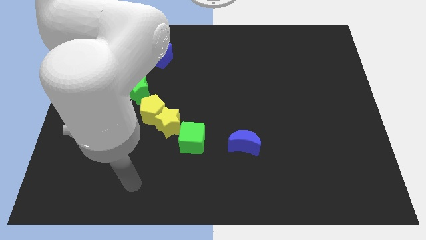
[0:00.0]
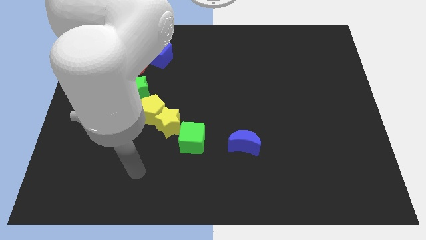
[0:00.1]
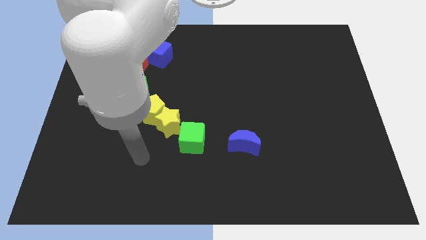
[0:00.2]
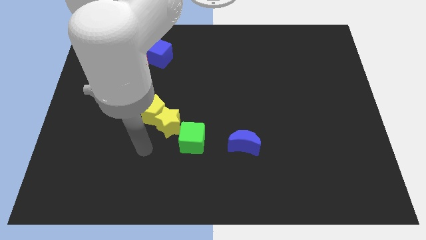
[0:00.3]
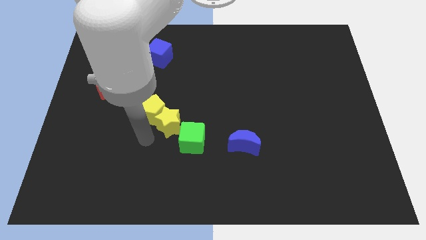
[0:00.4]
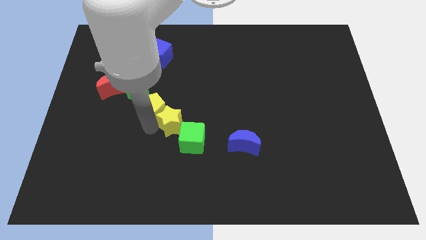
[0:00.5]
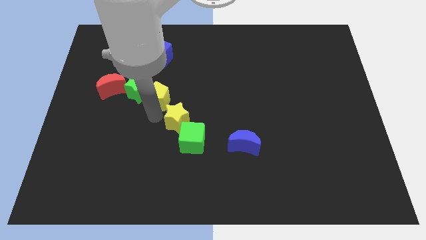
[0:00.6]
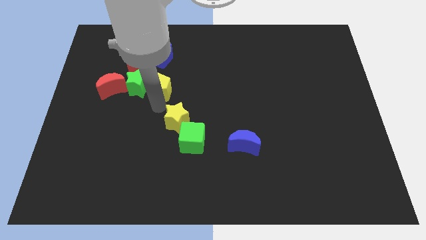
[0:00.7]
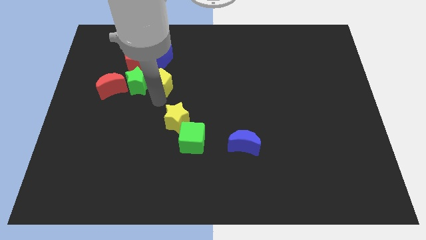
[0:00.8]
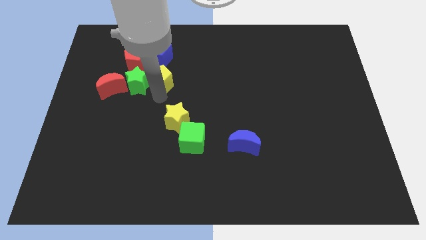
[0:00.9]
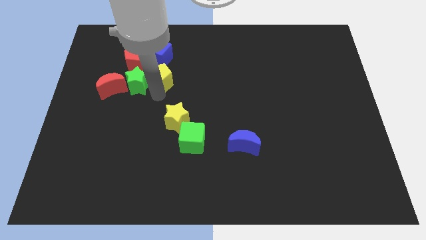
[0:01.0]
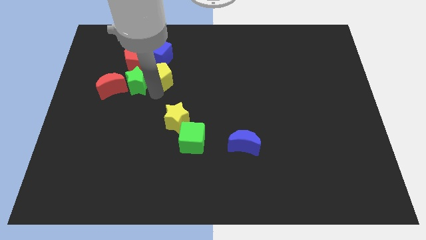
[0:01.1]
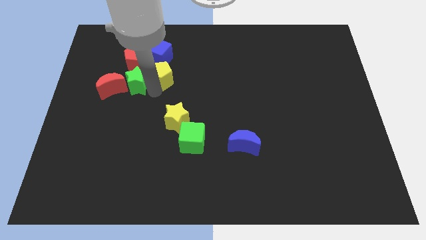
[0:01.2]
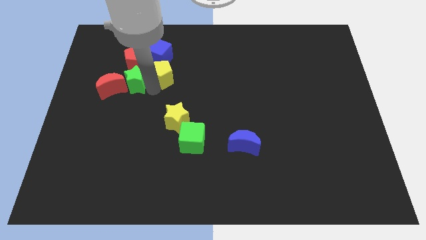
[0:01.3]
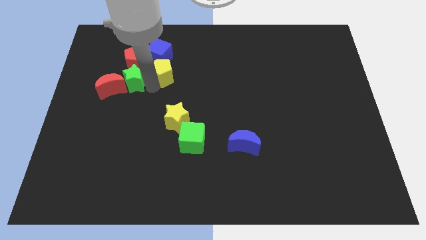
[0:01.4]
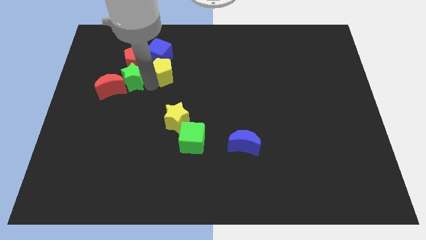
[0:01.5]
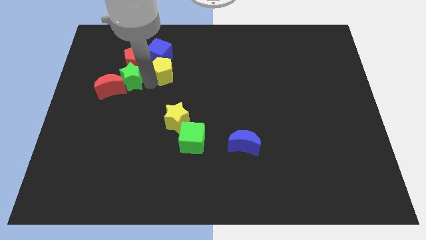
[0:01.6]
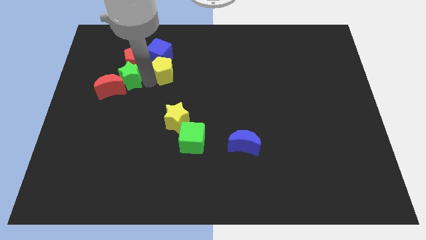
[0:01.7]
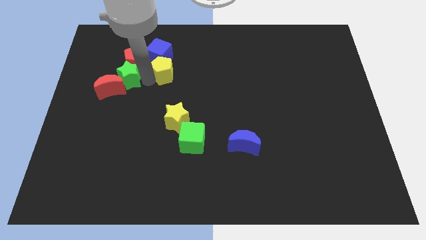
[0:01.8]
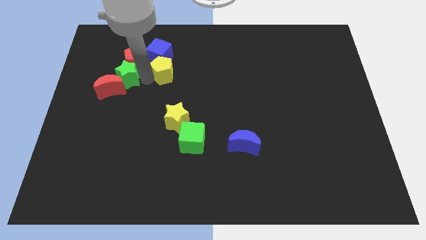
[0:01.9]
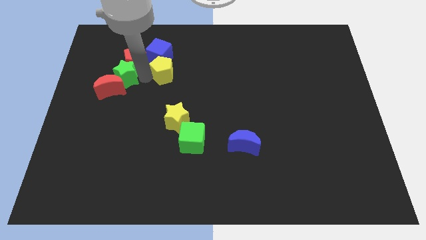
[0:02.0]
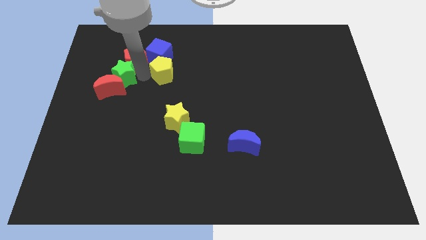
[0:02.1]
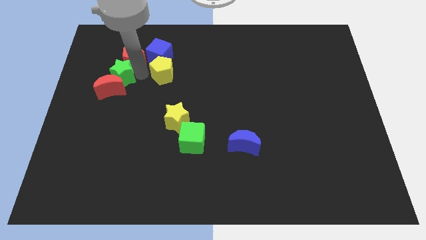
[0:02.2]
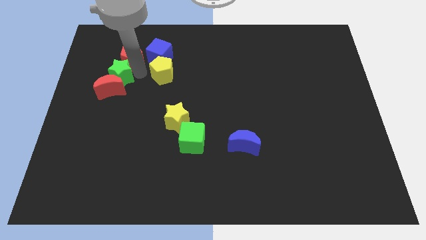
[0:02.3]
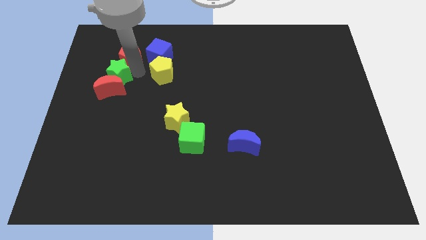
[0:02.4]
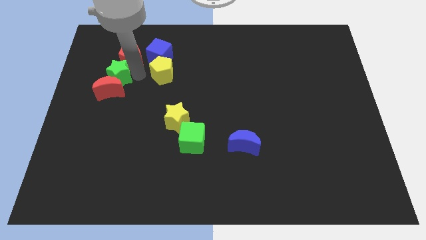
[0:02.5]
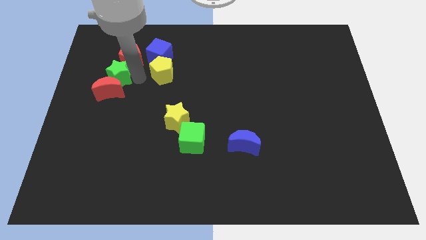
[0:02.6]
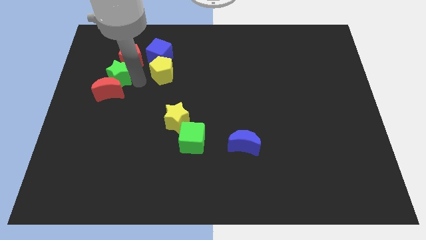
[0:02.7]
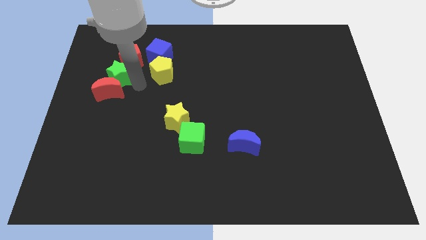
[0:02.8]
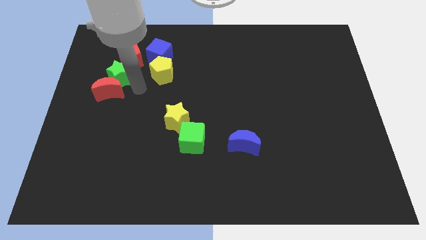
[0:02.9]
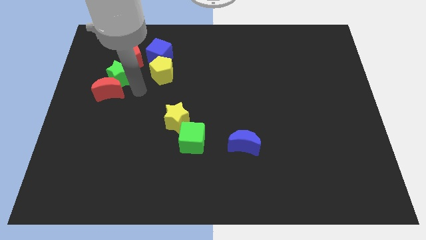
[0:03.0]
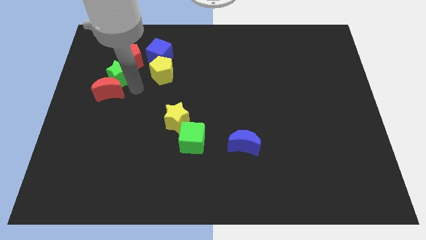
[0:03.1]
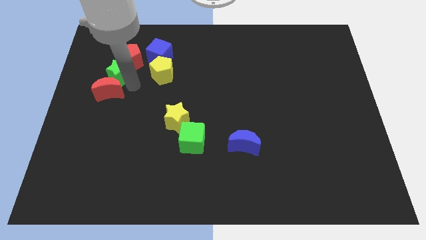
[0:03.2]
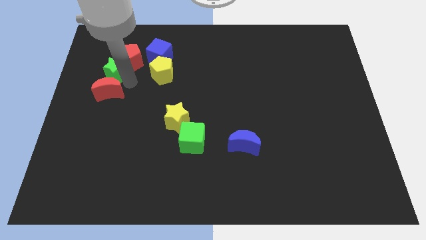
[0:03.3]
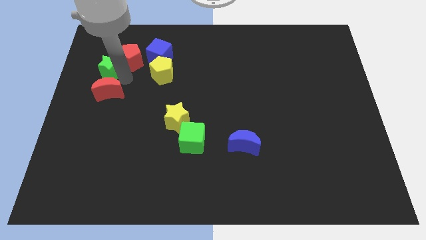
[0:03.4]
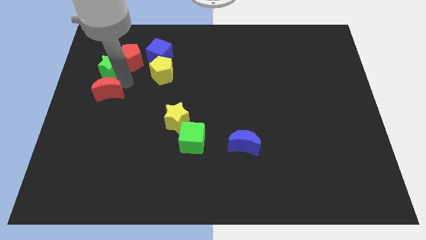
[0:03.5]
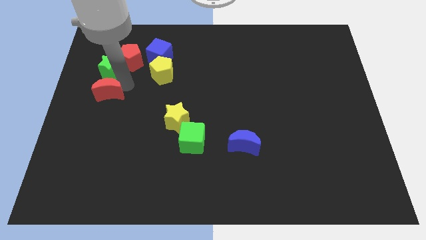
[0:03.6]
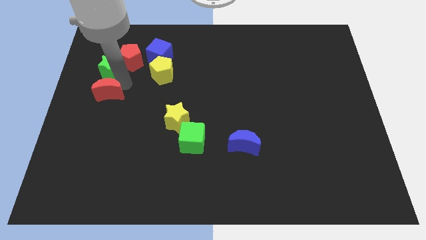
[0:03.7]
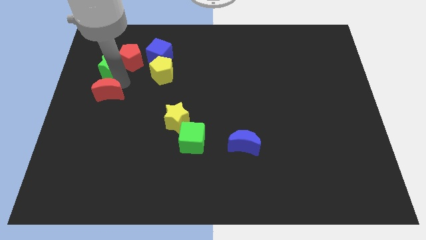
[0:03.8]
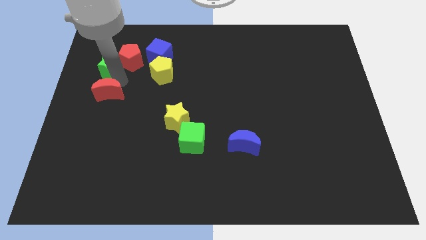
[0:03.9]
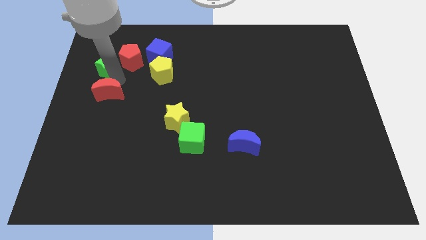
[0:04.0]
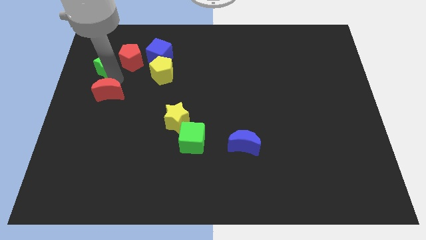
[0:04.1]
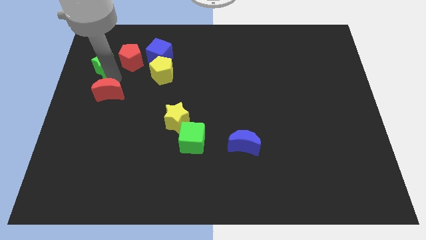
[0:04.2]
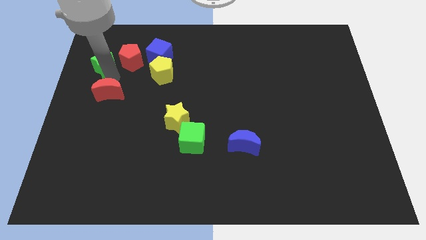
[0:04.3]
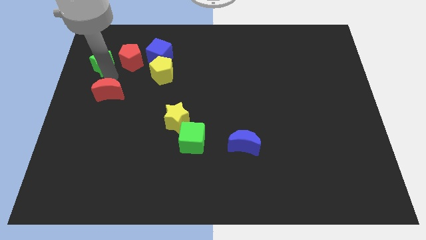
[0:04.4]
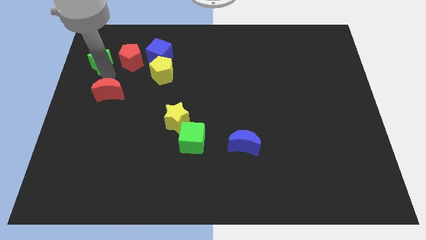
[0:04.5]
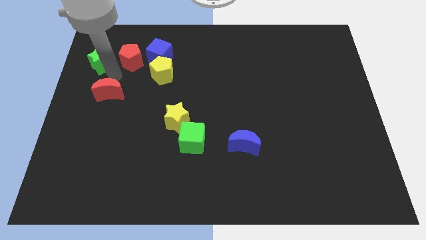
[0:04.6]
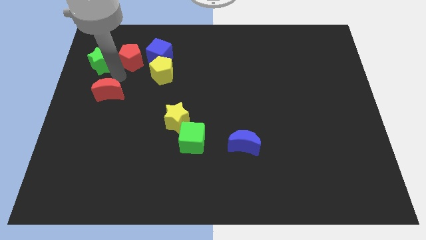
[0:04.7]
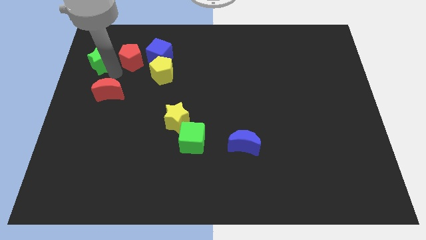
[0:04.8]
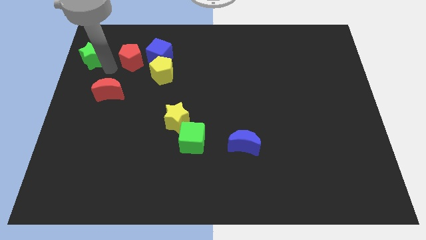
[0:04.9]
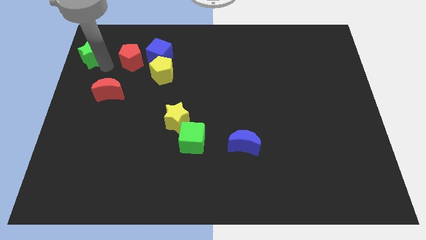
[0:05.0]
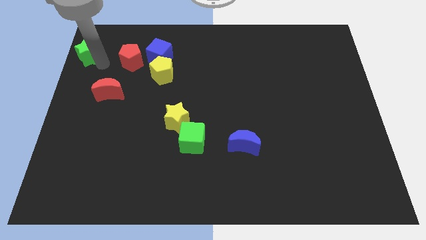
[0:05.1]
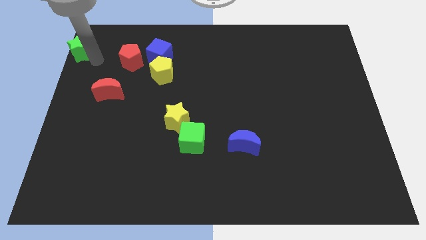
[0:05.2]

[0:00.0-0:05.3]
put the green star to the upper left corner

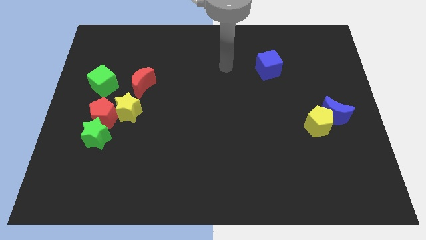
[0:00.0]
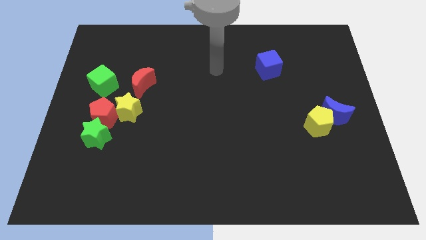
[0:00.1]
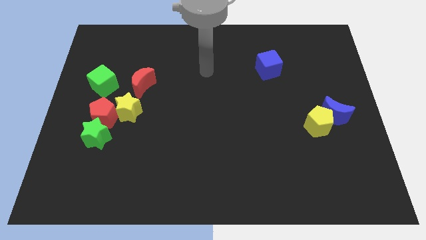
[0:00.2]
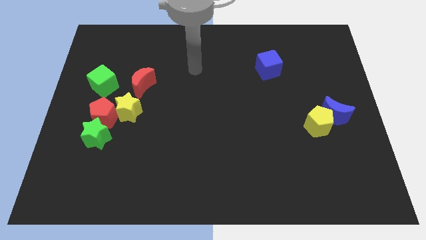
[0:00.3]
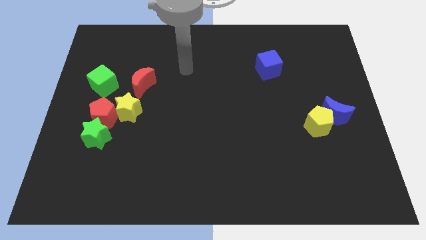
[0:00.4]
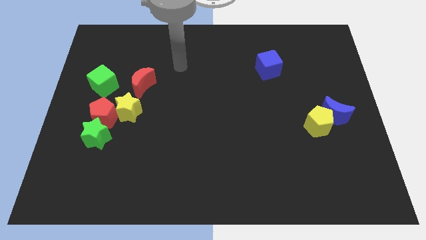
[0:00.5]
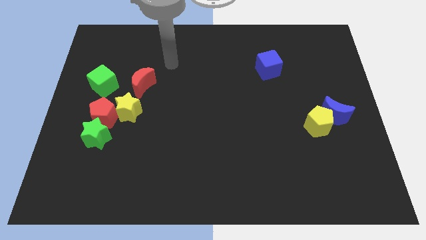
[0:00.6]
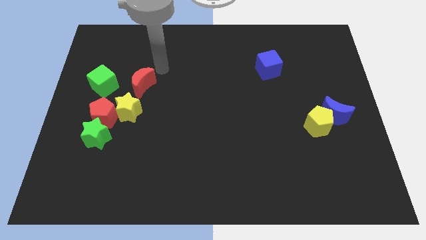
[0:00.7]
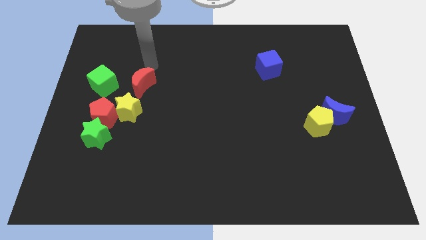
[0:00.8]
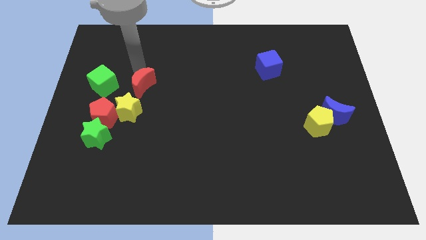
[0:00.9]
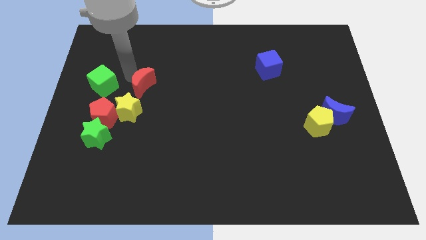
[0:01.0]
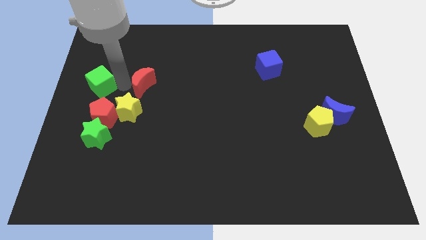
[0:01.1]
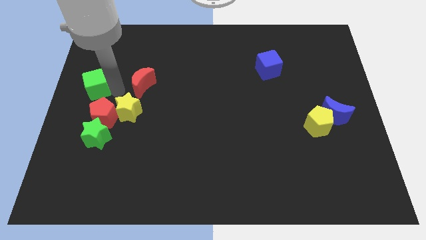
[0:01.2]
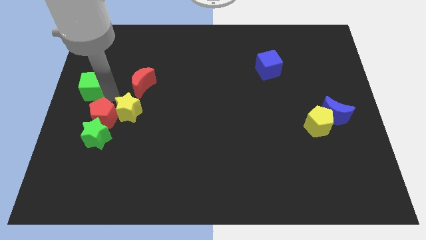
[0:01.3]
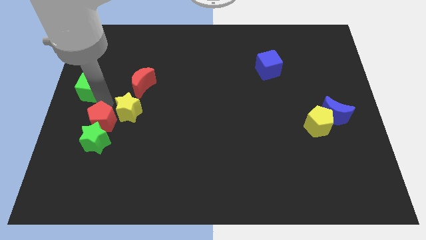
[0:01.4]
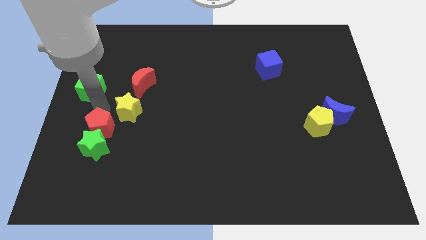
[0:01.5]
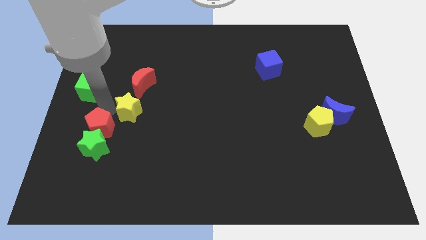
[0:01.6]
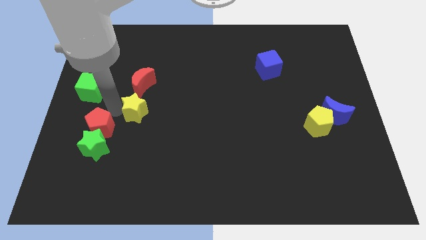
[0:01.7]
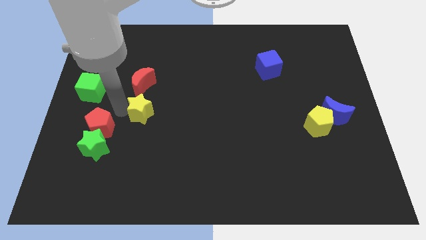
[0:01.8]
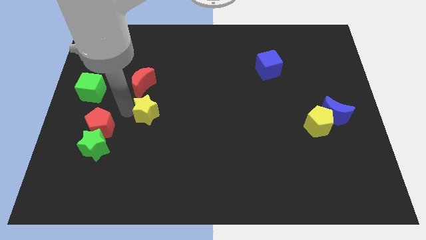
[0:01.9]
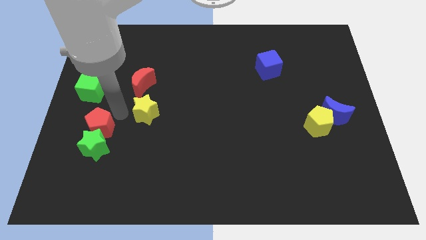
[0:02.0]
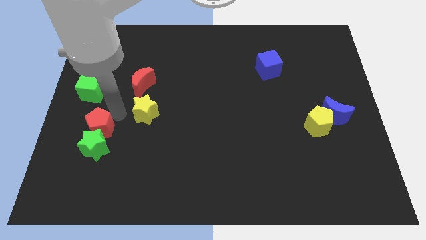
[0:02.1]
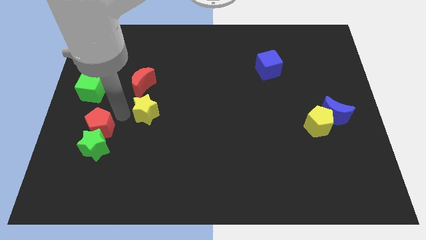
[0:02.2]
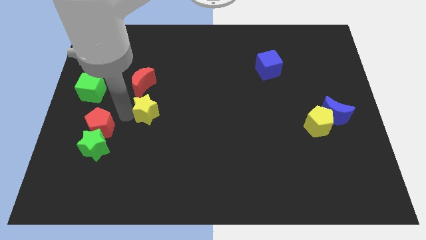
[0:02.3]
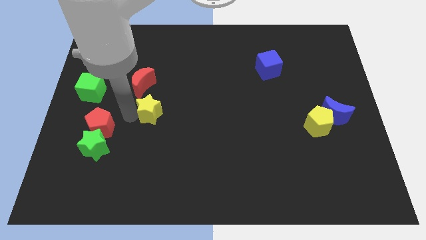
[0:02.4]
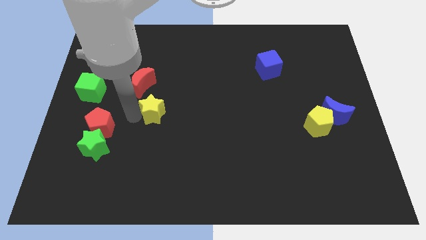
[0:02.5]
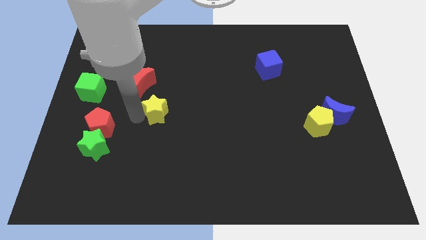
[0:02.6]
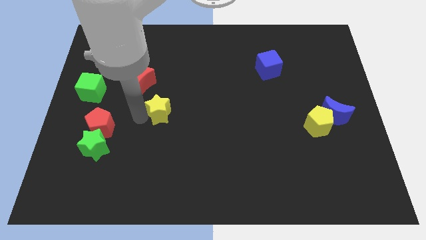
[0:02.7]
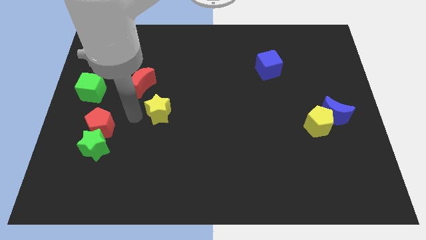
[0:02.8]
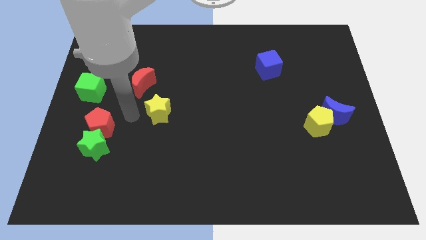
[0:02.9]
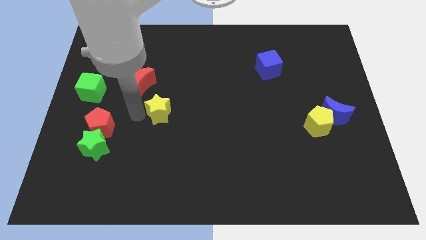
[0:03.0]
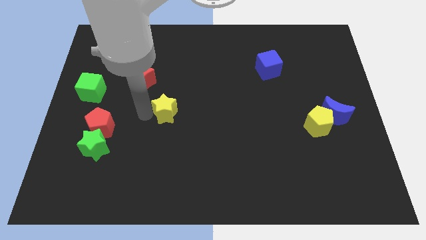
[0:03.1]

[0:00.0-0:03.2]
put the yellow star to the center of the board
